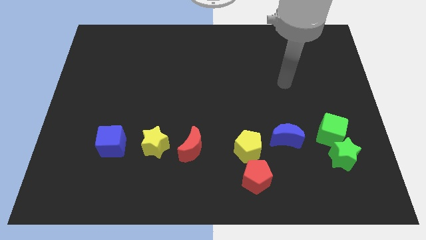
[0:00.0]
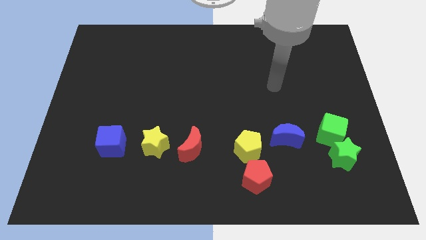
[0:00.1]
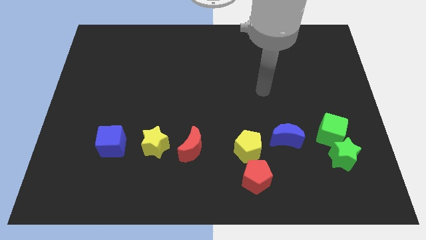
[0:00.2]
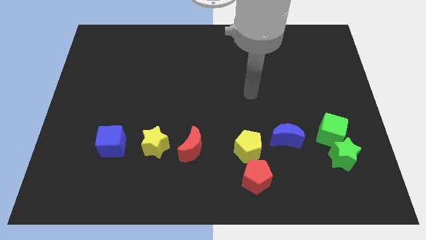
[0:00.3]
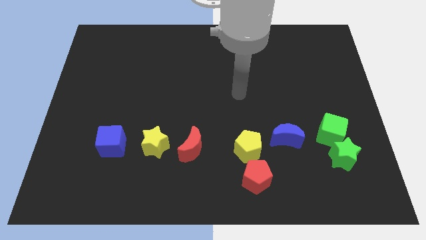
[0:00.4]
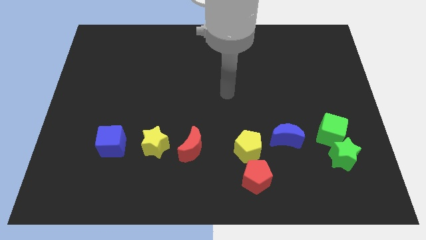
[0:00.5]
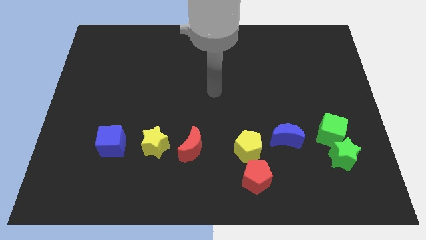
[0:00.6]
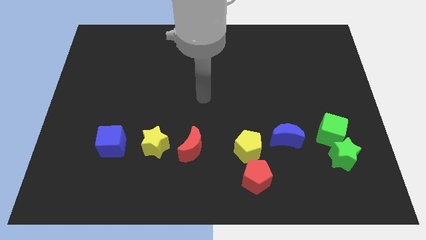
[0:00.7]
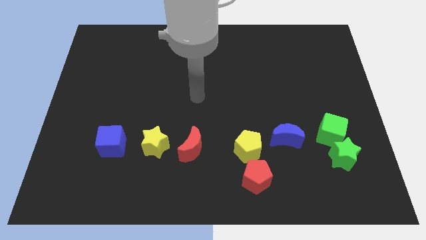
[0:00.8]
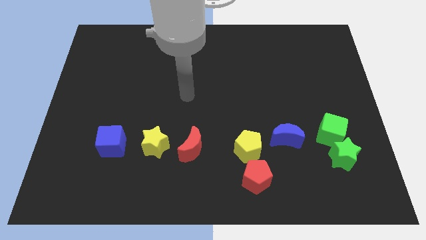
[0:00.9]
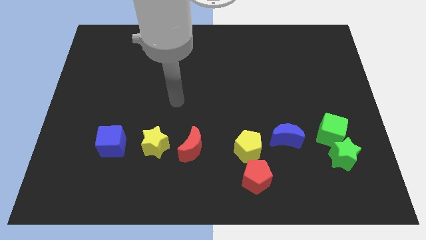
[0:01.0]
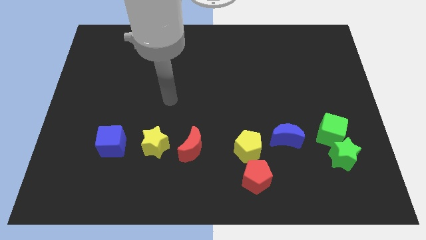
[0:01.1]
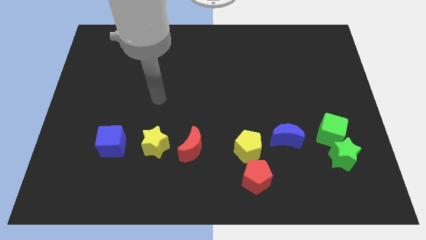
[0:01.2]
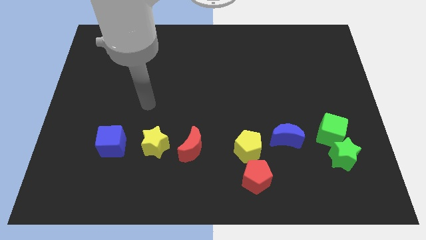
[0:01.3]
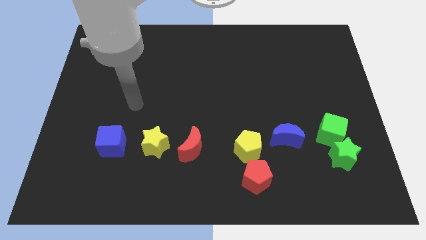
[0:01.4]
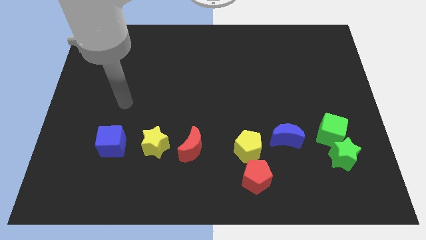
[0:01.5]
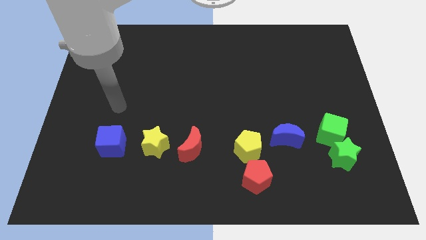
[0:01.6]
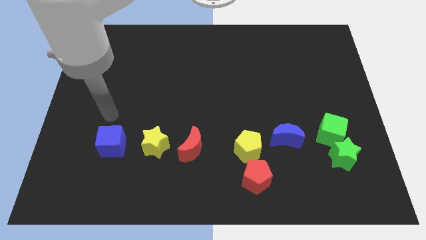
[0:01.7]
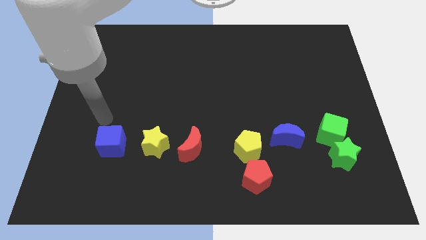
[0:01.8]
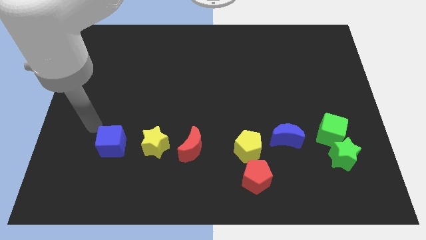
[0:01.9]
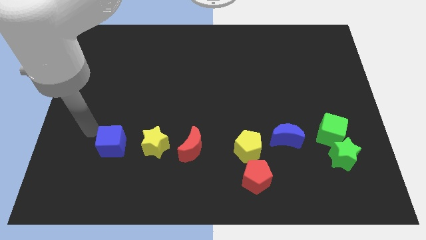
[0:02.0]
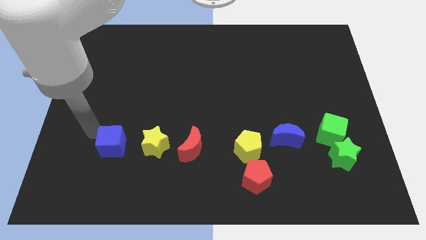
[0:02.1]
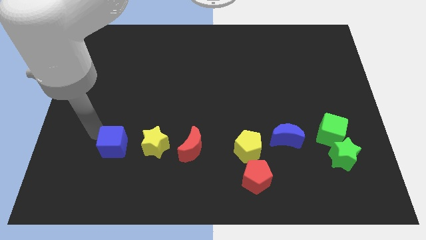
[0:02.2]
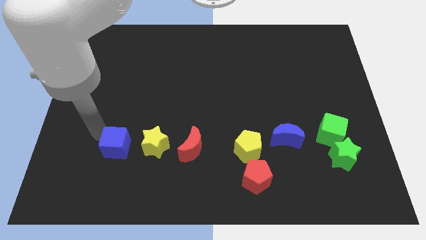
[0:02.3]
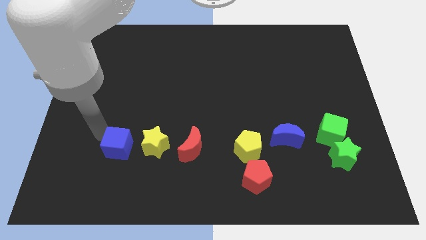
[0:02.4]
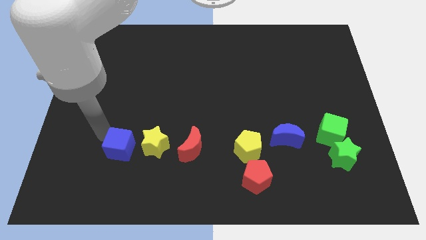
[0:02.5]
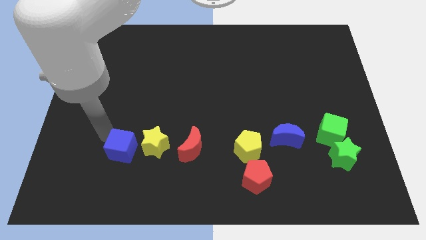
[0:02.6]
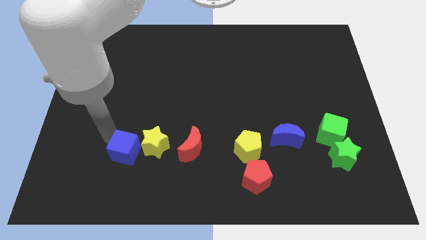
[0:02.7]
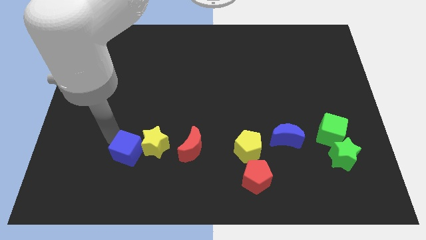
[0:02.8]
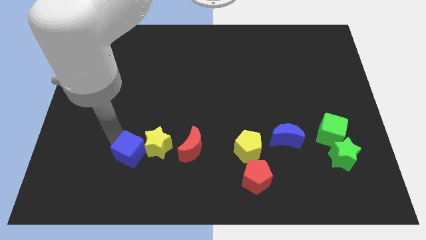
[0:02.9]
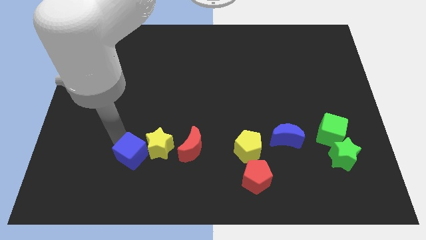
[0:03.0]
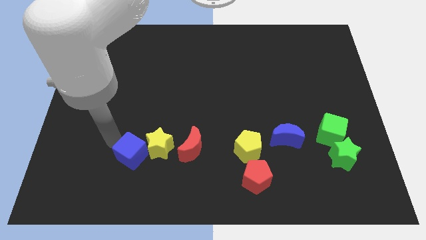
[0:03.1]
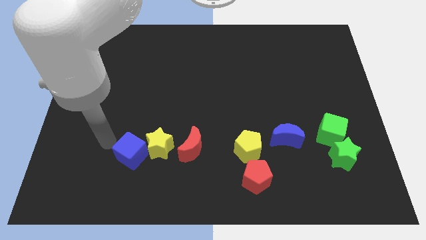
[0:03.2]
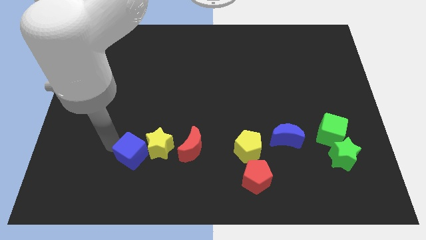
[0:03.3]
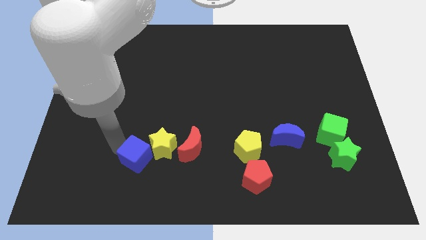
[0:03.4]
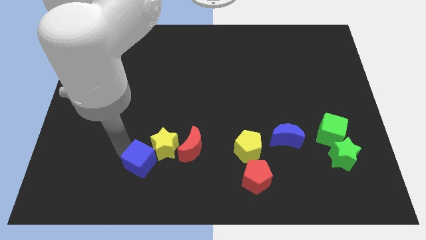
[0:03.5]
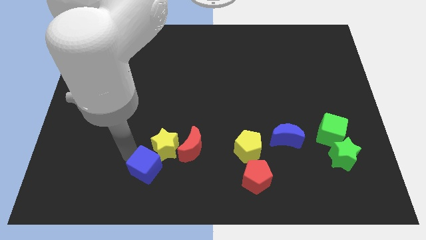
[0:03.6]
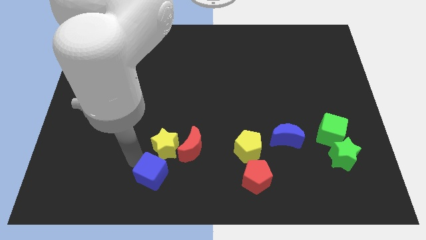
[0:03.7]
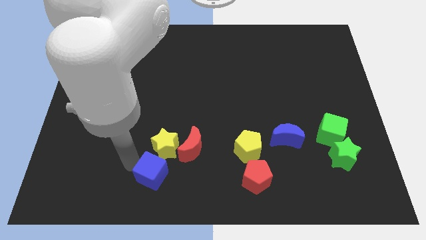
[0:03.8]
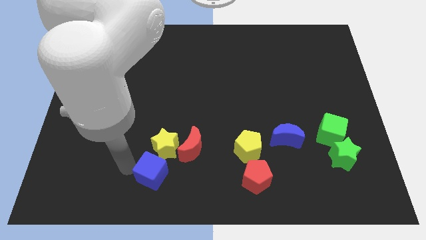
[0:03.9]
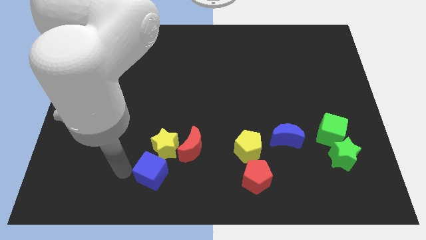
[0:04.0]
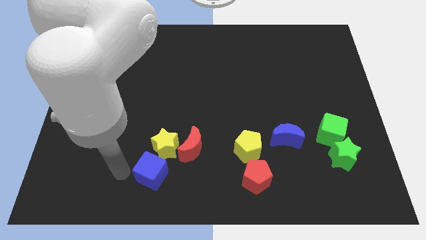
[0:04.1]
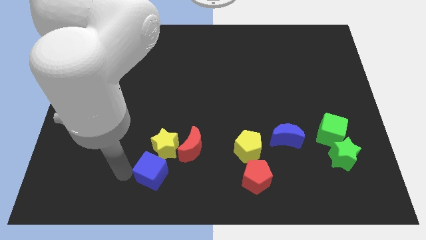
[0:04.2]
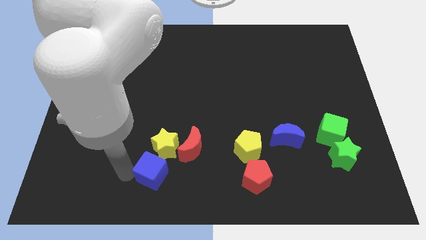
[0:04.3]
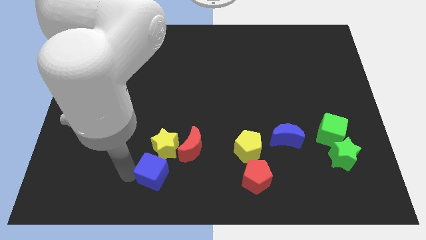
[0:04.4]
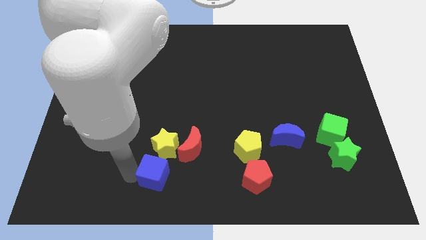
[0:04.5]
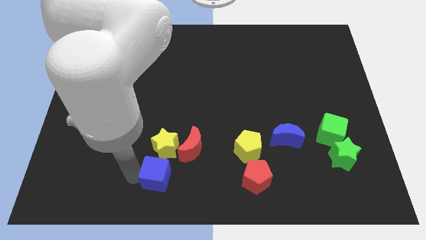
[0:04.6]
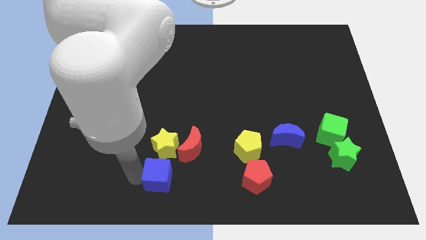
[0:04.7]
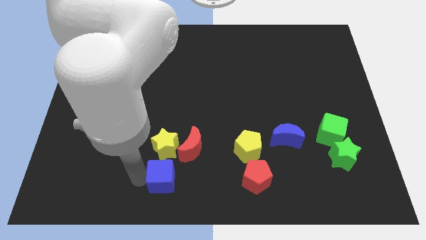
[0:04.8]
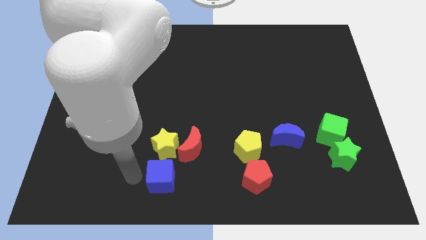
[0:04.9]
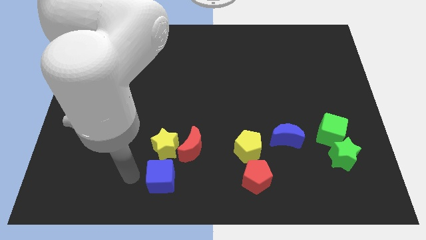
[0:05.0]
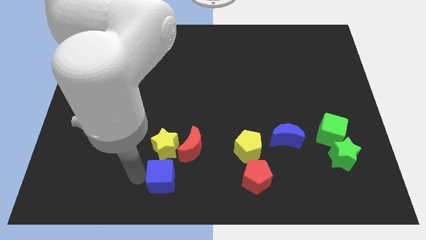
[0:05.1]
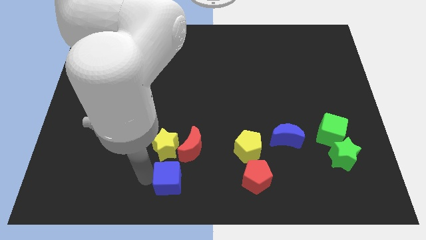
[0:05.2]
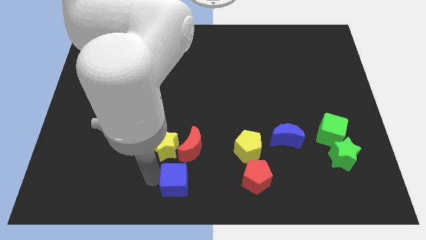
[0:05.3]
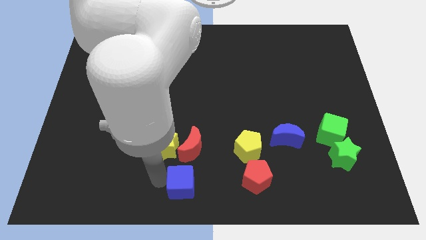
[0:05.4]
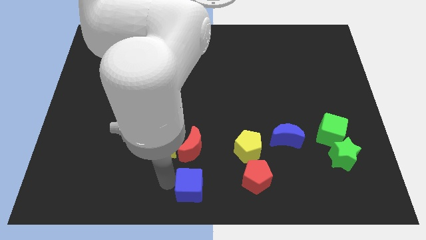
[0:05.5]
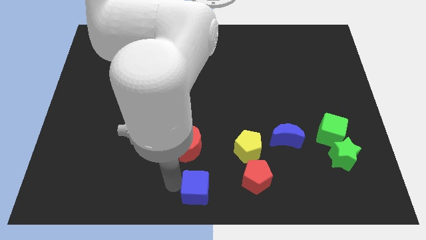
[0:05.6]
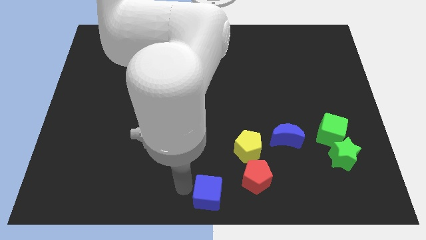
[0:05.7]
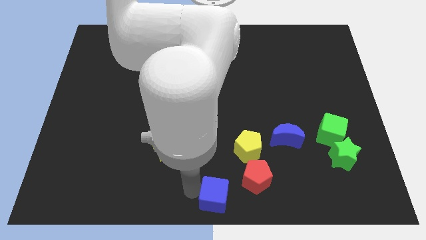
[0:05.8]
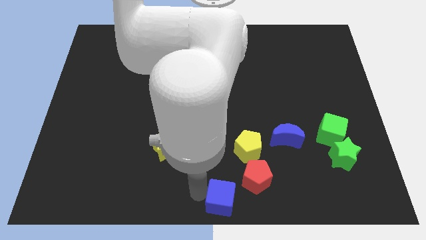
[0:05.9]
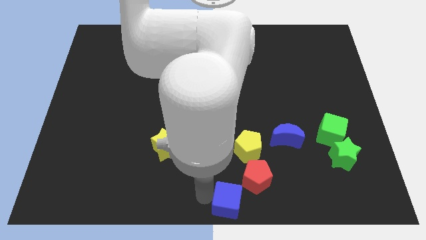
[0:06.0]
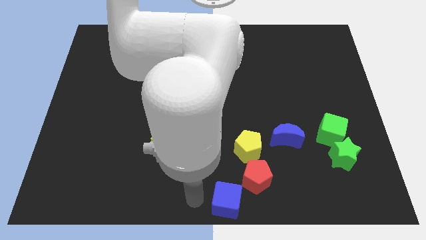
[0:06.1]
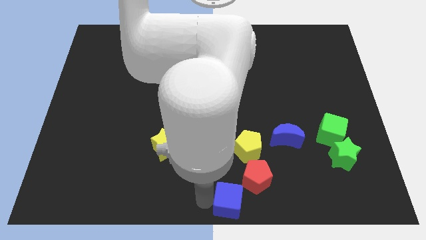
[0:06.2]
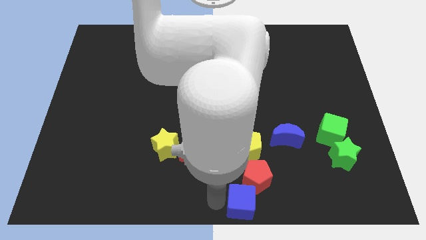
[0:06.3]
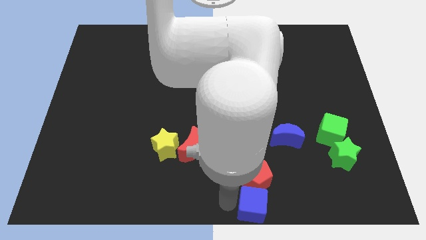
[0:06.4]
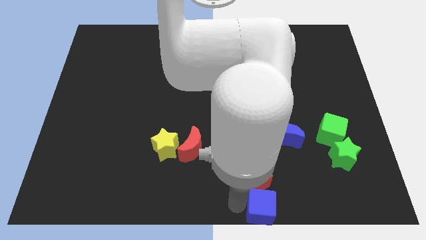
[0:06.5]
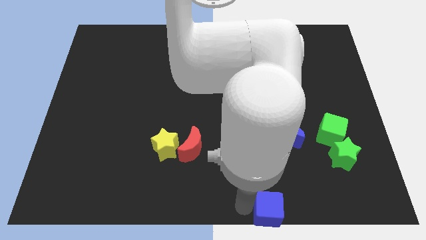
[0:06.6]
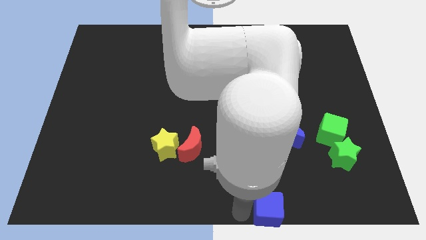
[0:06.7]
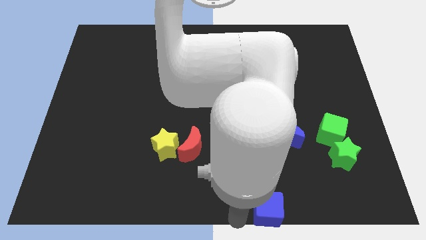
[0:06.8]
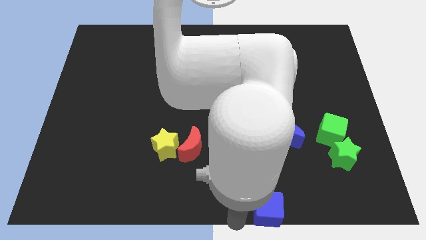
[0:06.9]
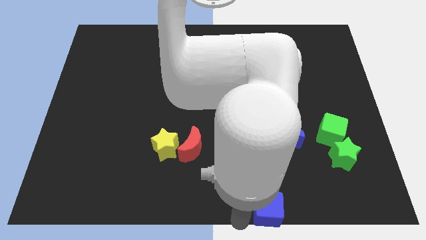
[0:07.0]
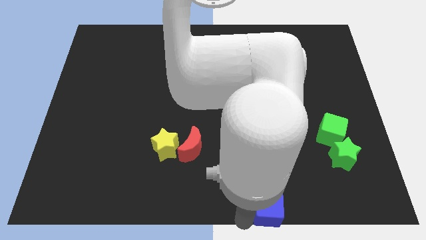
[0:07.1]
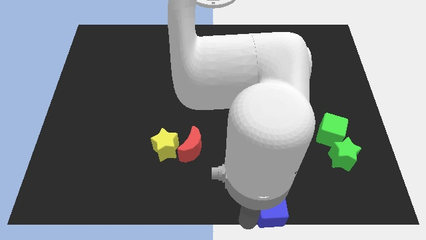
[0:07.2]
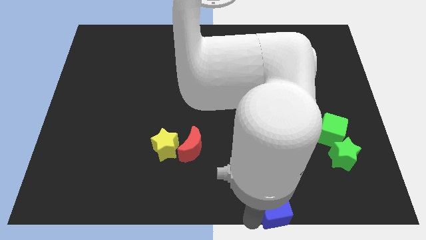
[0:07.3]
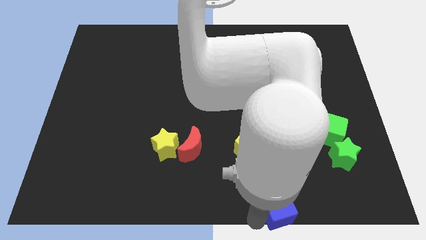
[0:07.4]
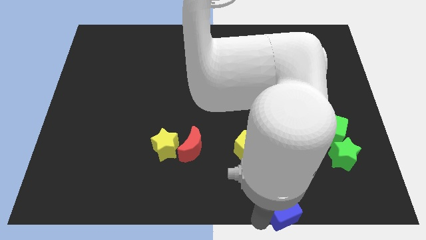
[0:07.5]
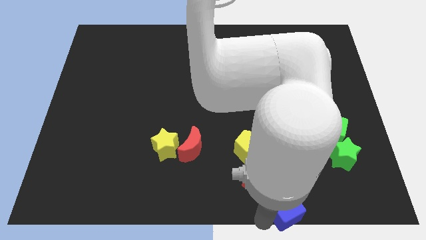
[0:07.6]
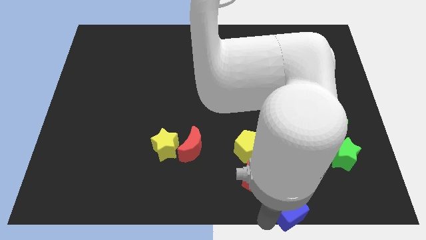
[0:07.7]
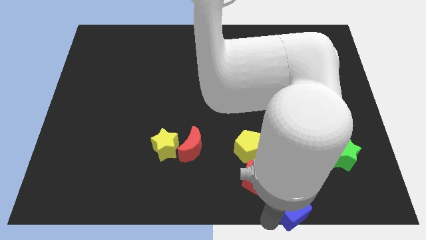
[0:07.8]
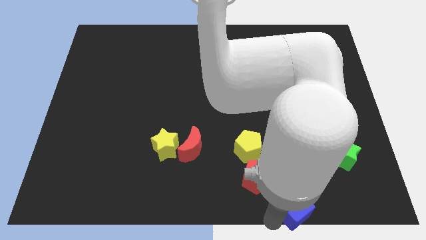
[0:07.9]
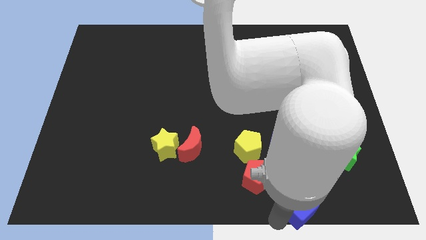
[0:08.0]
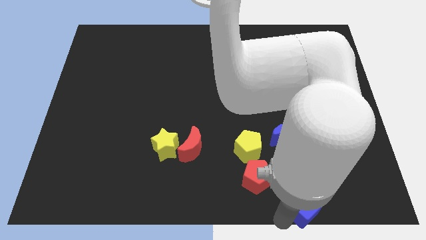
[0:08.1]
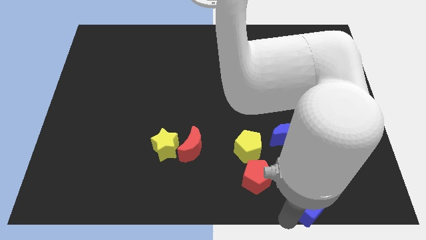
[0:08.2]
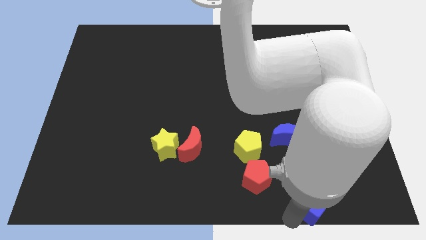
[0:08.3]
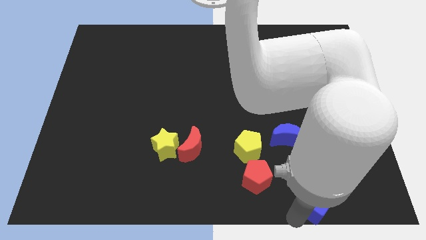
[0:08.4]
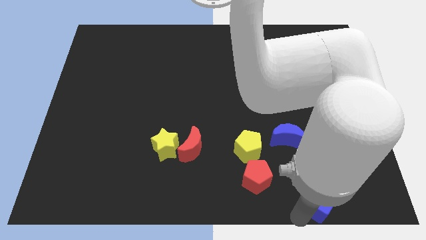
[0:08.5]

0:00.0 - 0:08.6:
slide the blue cube to the bottom left side of the green star
